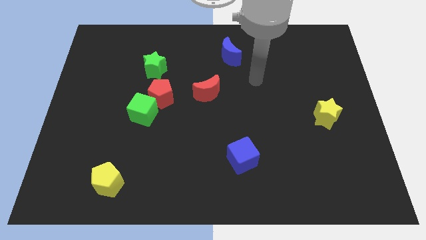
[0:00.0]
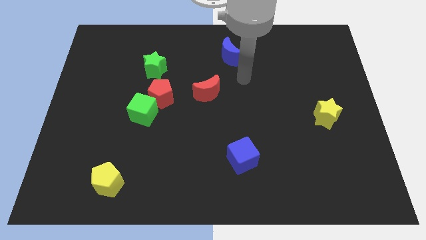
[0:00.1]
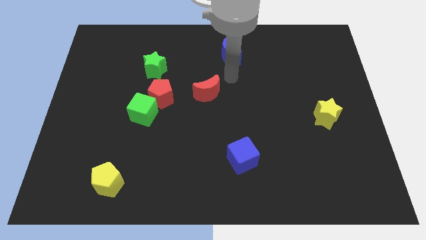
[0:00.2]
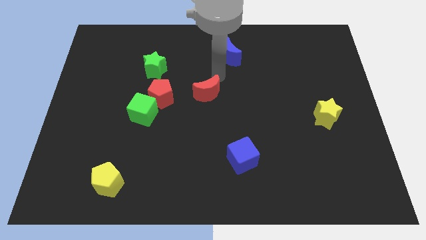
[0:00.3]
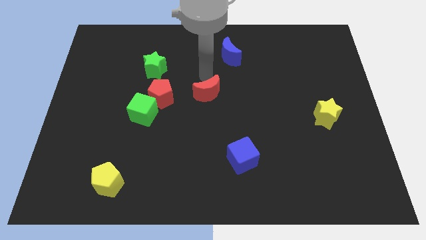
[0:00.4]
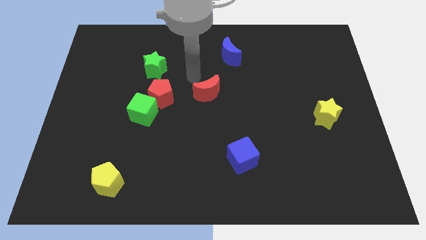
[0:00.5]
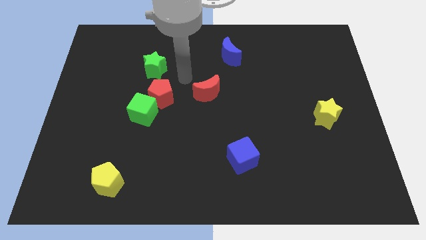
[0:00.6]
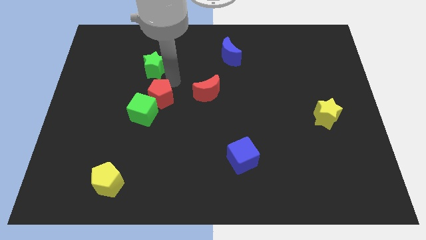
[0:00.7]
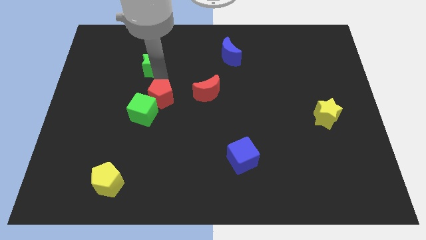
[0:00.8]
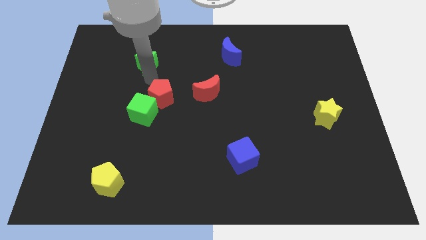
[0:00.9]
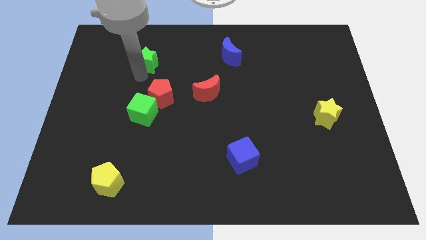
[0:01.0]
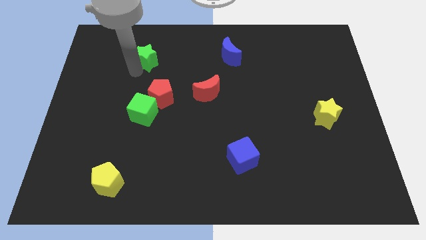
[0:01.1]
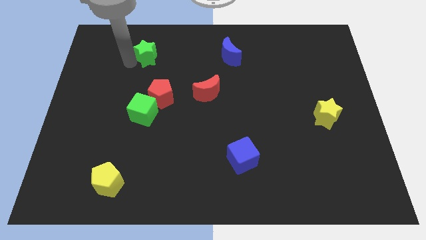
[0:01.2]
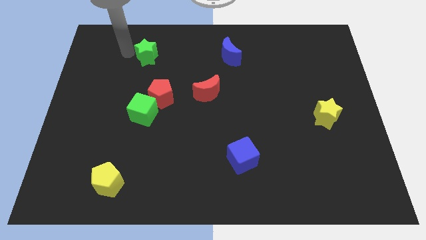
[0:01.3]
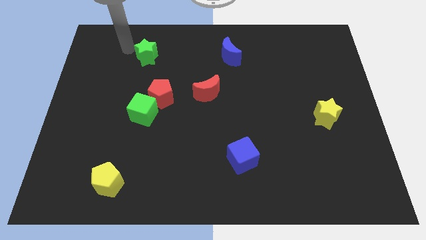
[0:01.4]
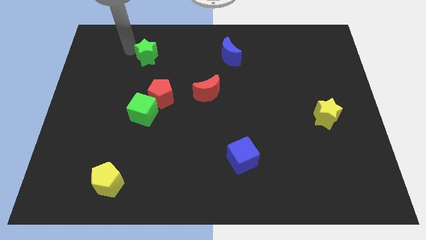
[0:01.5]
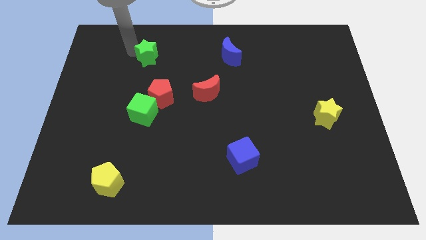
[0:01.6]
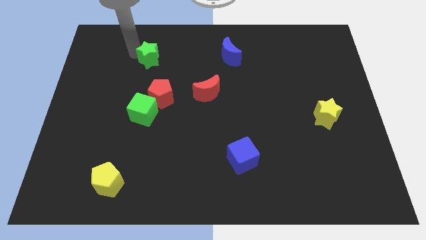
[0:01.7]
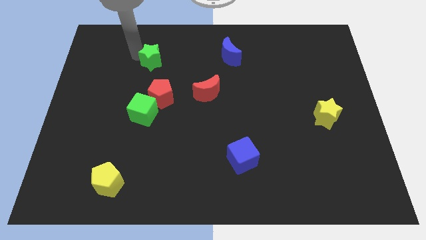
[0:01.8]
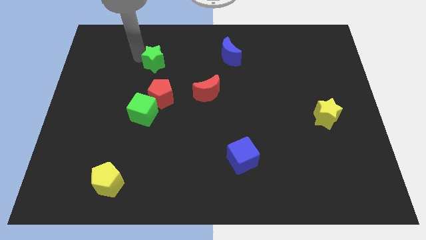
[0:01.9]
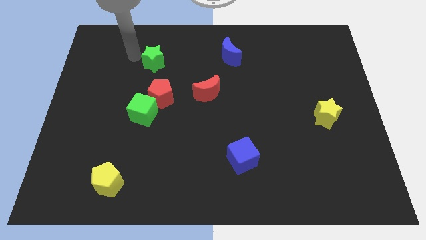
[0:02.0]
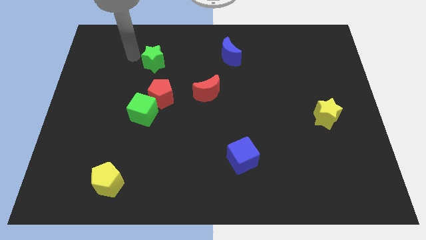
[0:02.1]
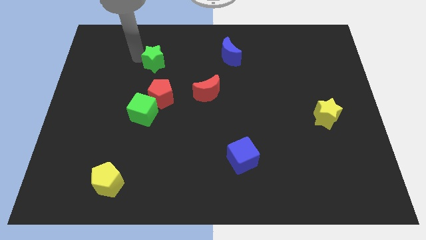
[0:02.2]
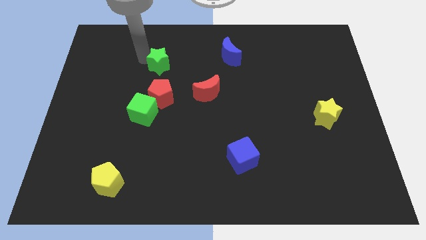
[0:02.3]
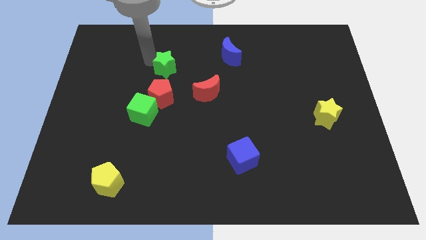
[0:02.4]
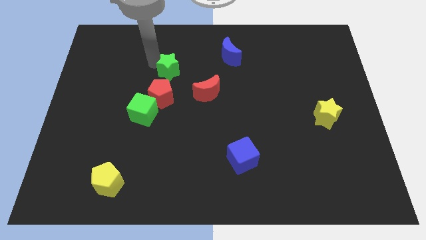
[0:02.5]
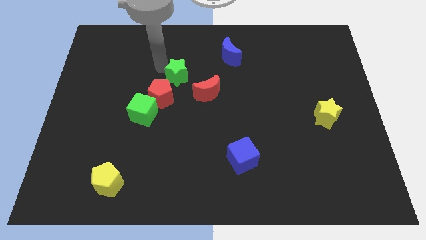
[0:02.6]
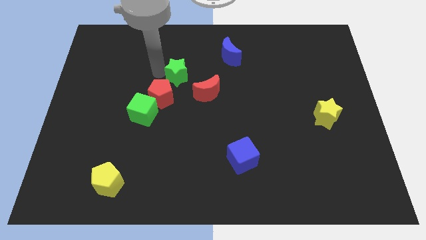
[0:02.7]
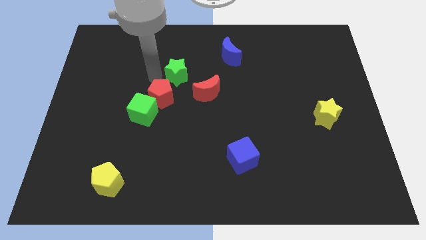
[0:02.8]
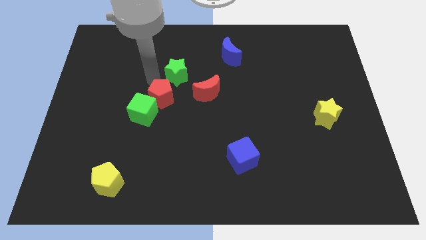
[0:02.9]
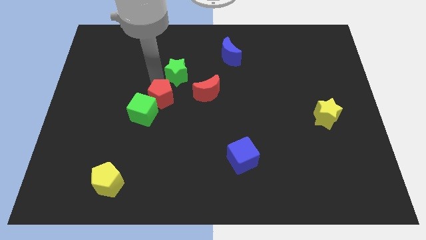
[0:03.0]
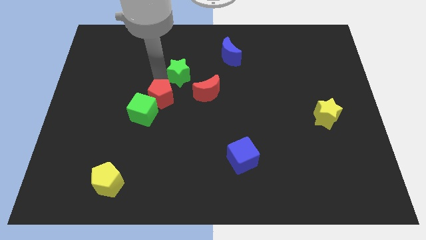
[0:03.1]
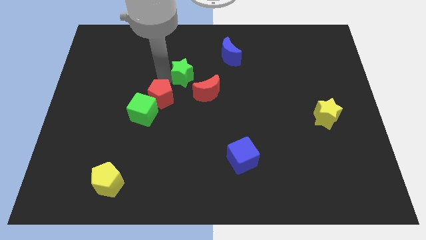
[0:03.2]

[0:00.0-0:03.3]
push the green star slightly to the right

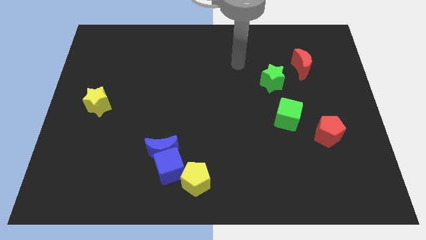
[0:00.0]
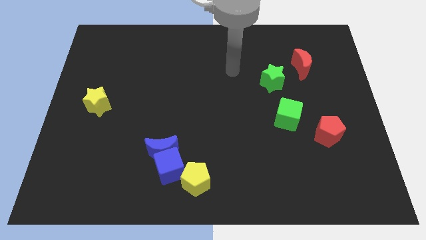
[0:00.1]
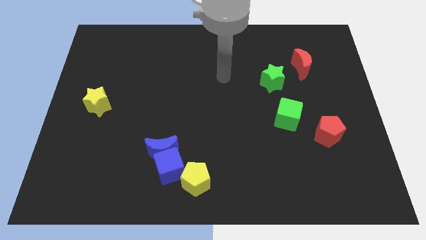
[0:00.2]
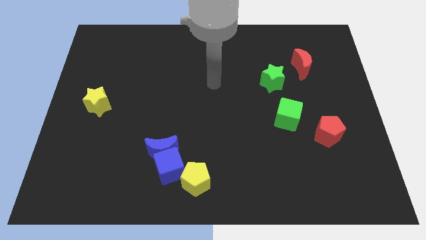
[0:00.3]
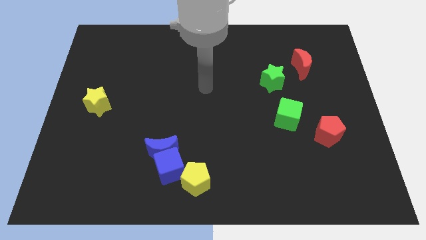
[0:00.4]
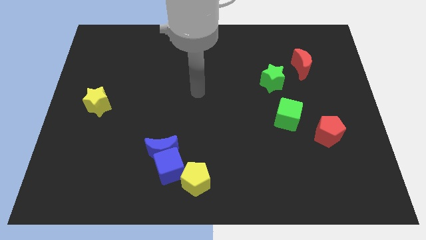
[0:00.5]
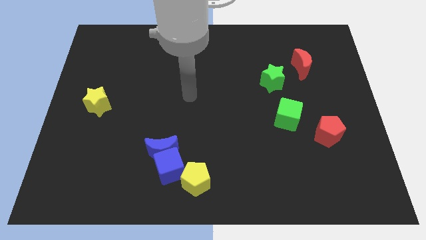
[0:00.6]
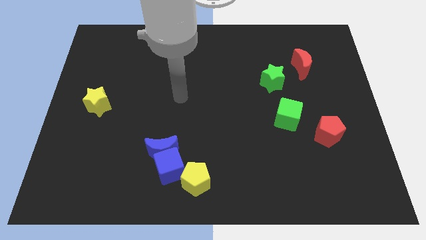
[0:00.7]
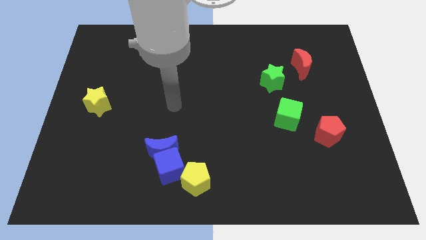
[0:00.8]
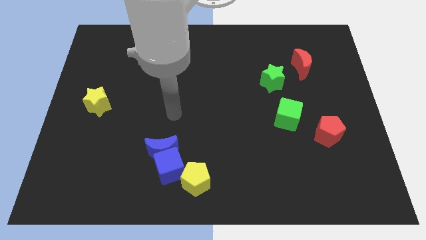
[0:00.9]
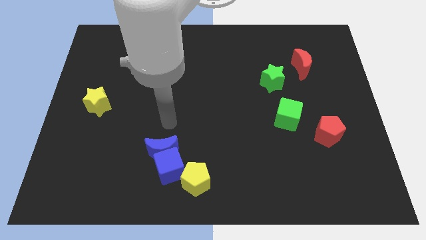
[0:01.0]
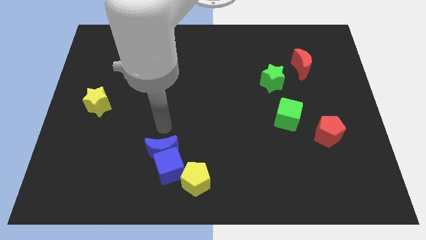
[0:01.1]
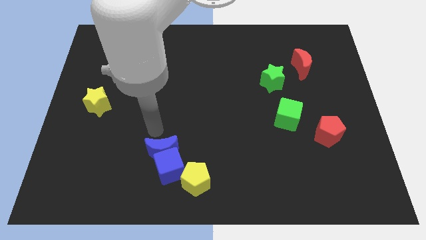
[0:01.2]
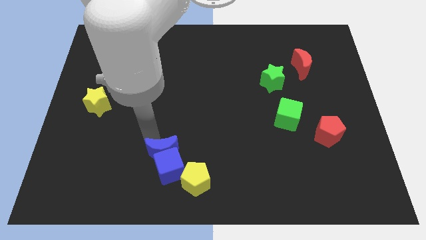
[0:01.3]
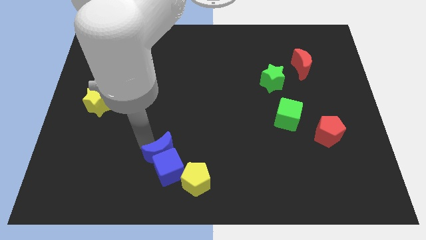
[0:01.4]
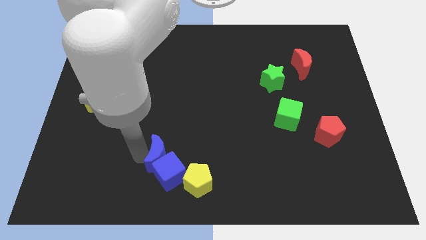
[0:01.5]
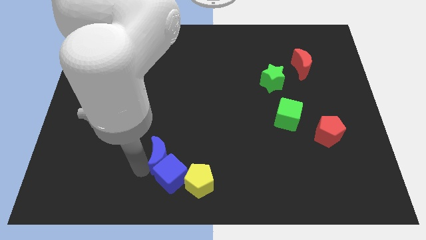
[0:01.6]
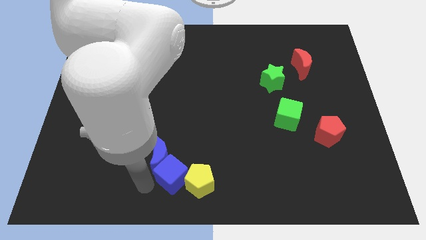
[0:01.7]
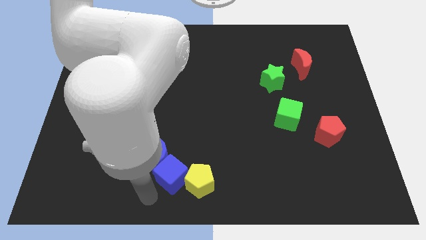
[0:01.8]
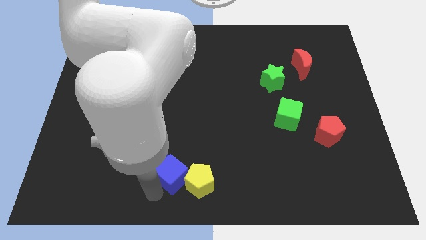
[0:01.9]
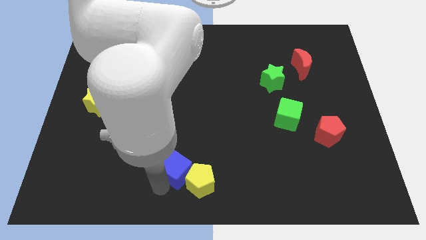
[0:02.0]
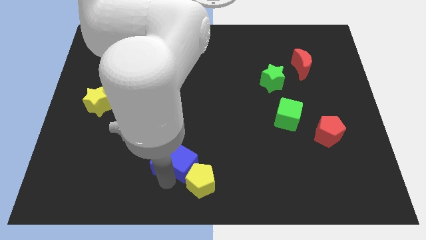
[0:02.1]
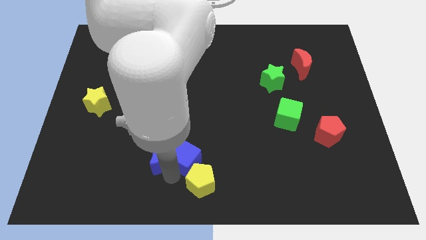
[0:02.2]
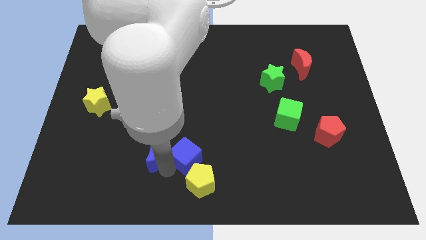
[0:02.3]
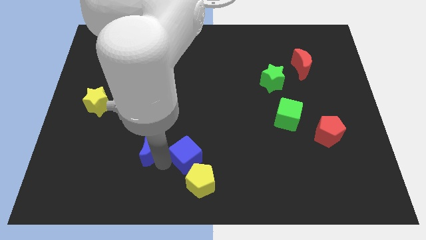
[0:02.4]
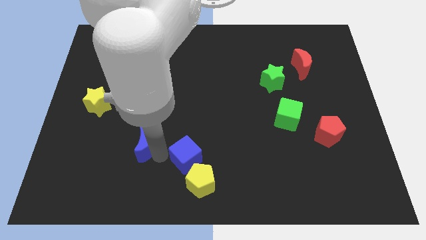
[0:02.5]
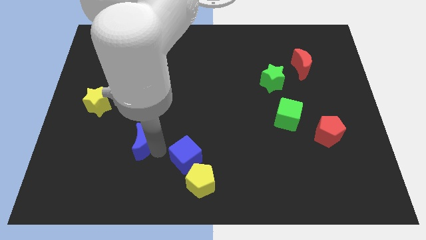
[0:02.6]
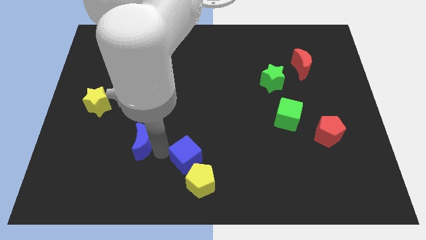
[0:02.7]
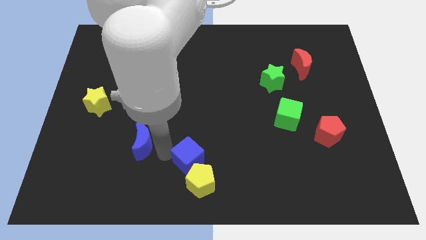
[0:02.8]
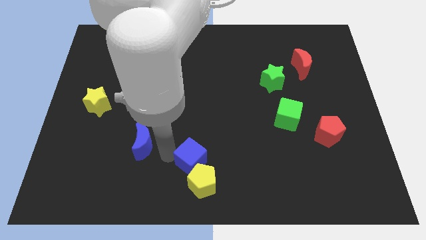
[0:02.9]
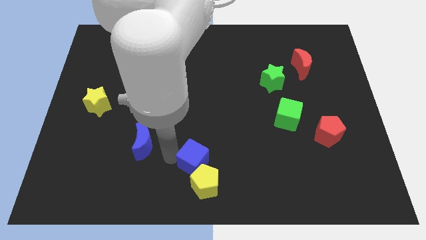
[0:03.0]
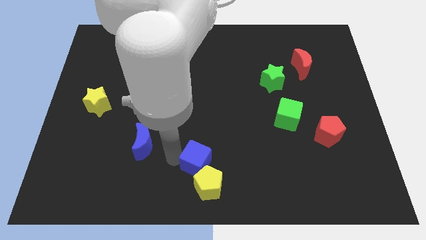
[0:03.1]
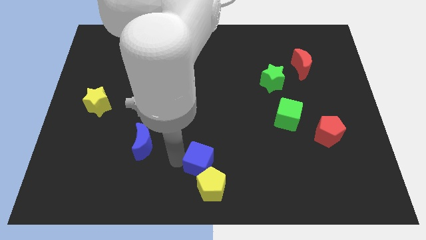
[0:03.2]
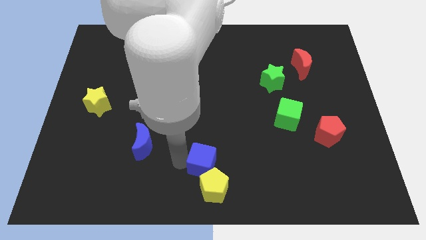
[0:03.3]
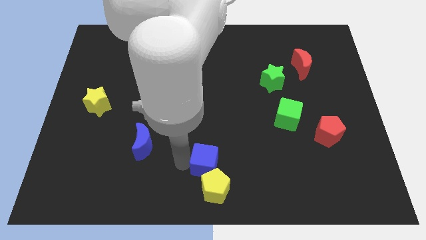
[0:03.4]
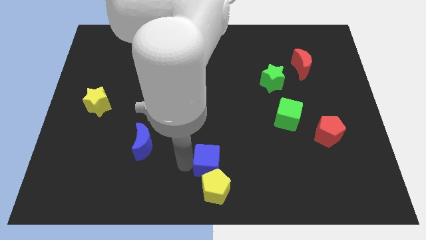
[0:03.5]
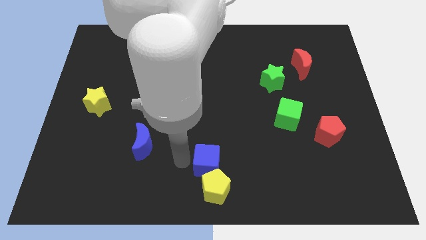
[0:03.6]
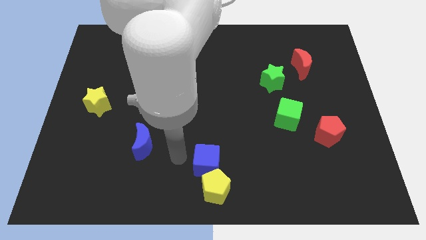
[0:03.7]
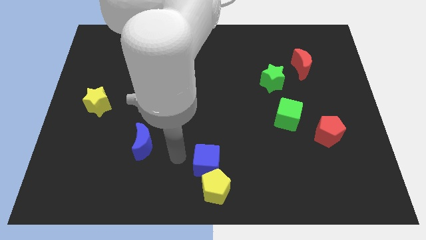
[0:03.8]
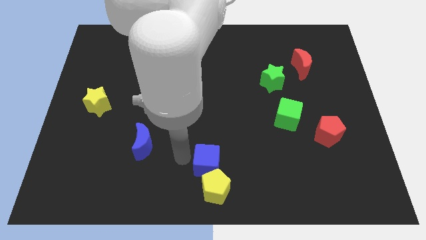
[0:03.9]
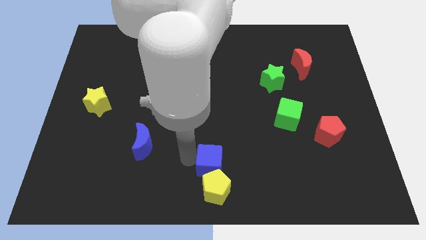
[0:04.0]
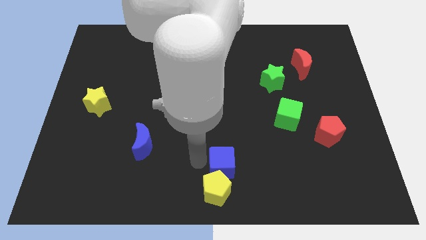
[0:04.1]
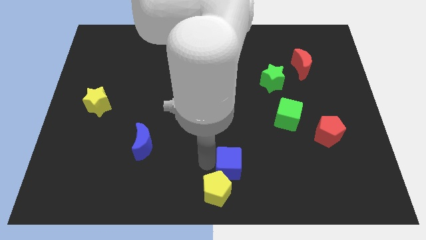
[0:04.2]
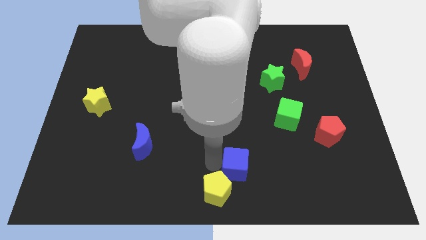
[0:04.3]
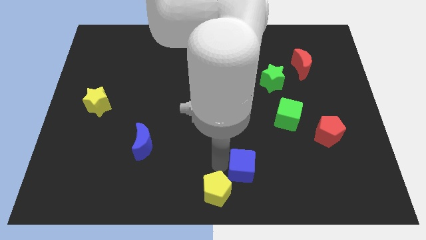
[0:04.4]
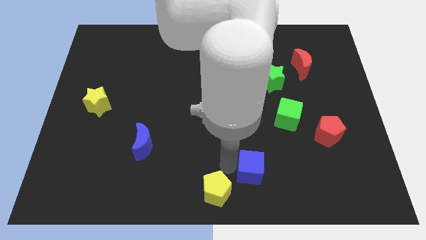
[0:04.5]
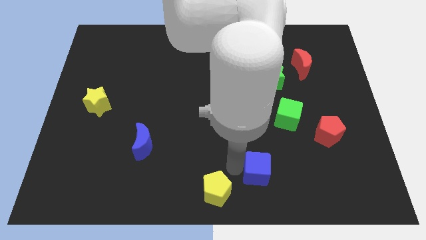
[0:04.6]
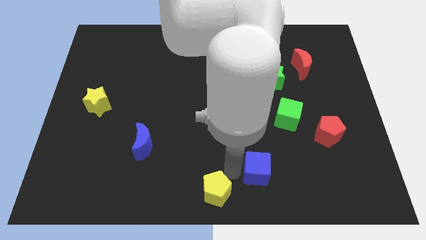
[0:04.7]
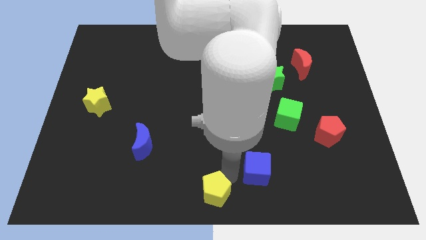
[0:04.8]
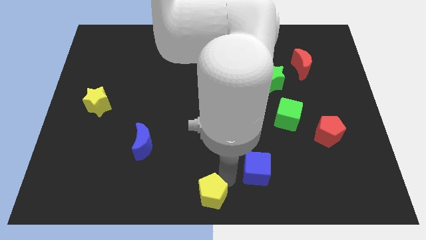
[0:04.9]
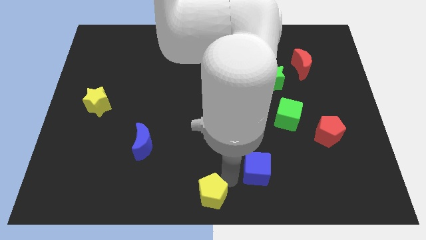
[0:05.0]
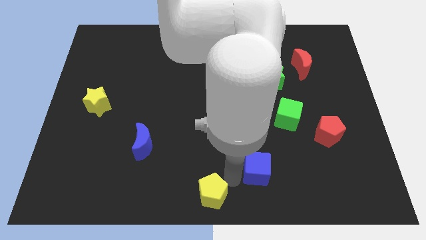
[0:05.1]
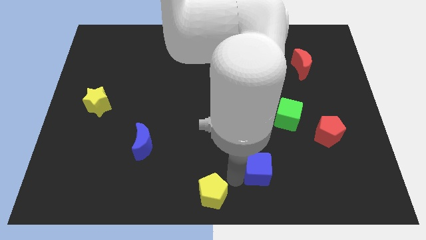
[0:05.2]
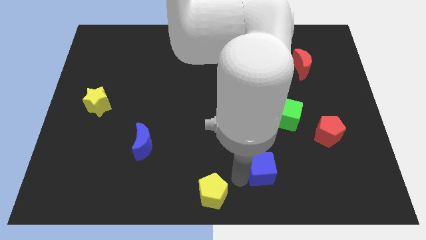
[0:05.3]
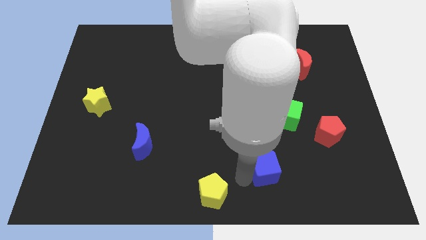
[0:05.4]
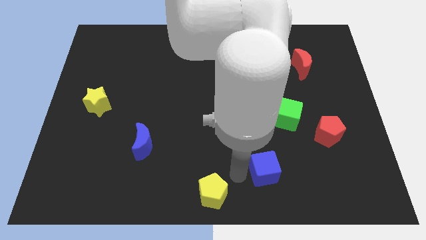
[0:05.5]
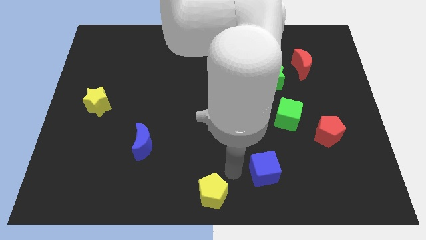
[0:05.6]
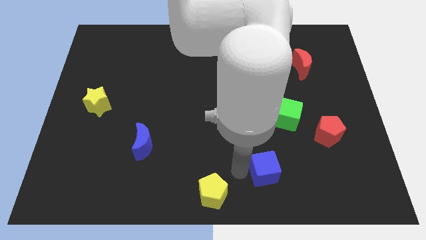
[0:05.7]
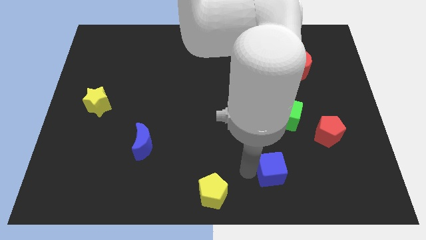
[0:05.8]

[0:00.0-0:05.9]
slide the blue cube right
